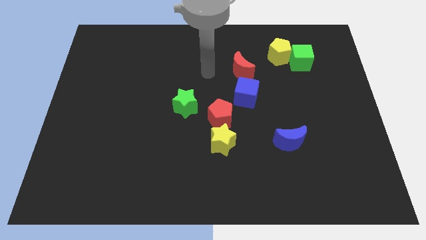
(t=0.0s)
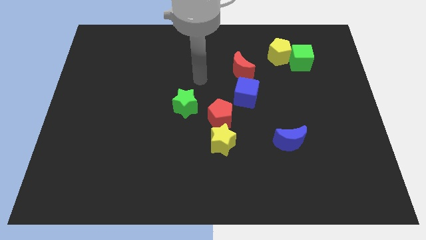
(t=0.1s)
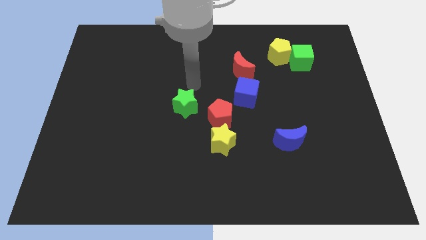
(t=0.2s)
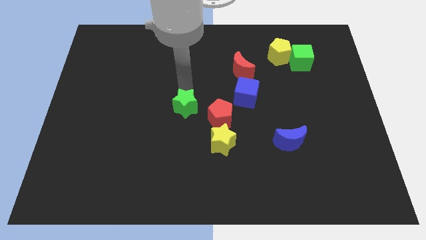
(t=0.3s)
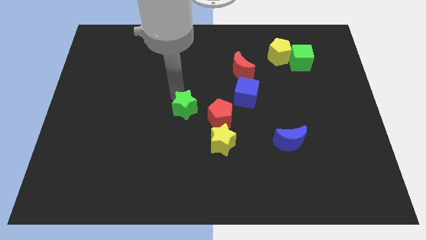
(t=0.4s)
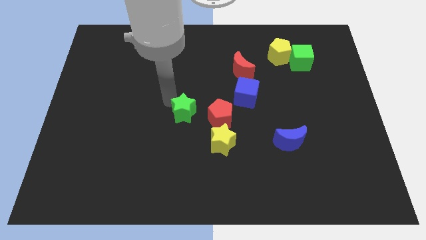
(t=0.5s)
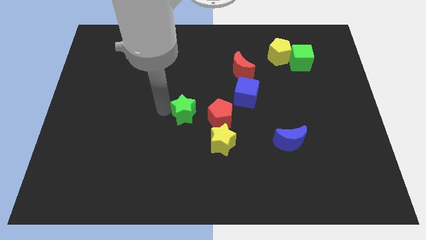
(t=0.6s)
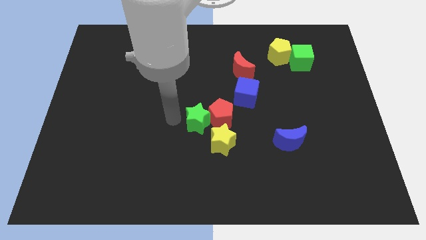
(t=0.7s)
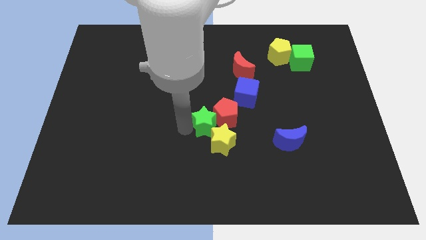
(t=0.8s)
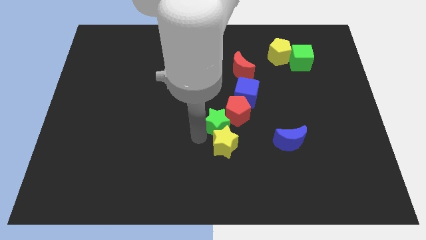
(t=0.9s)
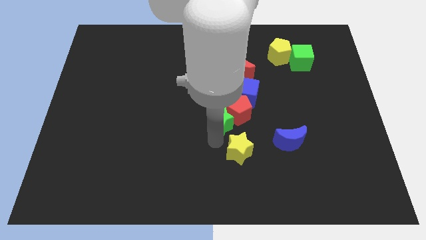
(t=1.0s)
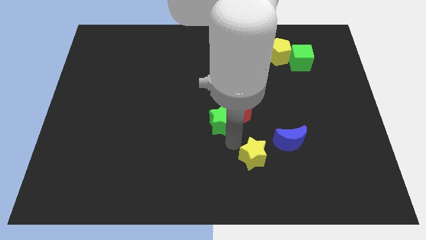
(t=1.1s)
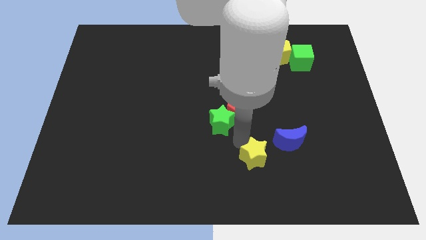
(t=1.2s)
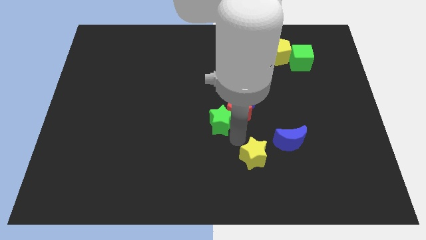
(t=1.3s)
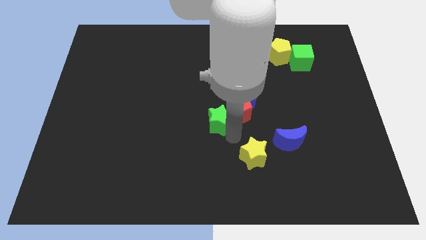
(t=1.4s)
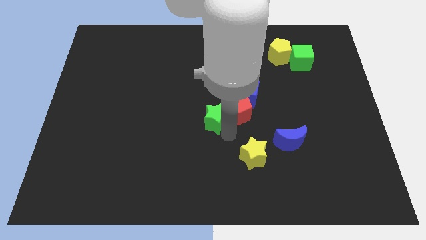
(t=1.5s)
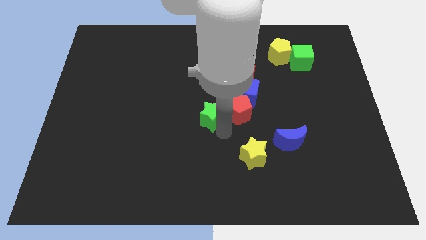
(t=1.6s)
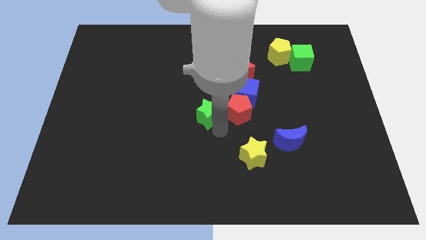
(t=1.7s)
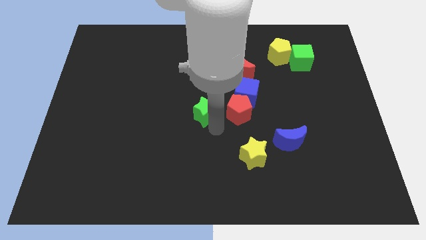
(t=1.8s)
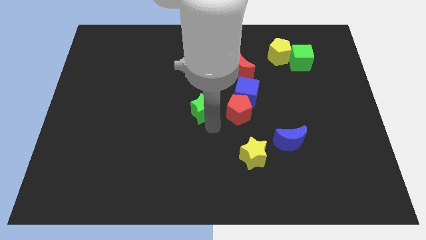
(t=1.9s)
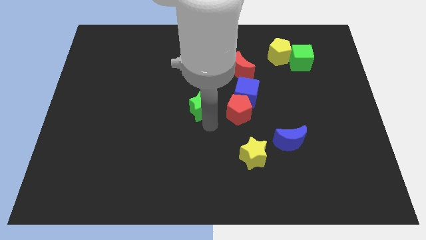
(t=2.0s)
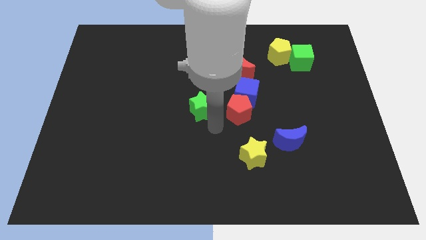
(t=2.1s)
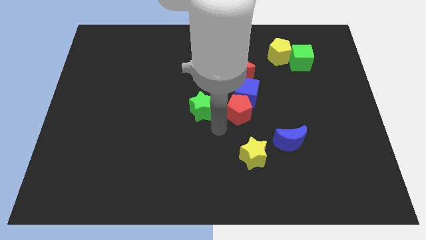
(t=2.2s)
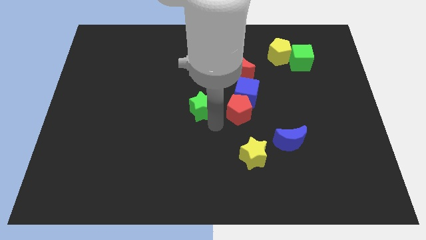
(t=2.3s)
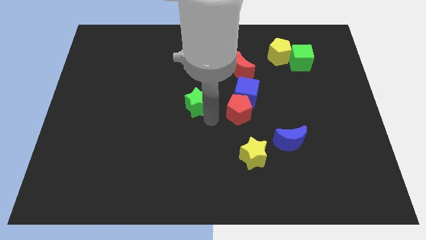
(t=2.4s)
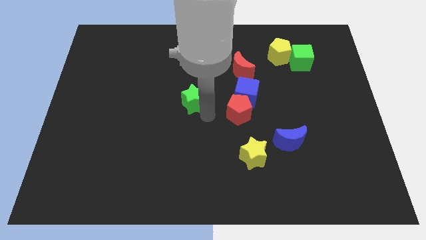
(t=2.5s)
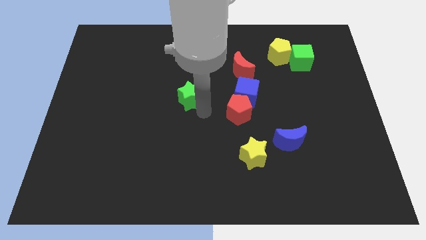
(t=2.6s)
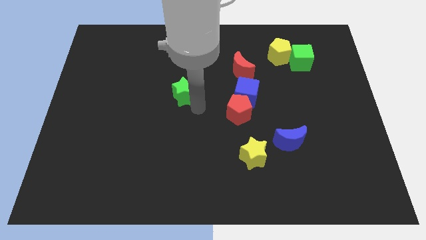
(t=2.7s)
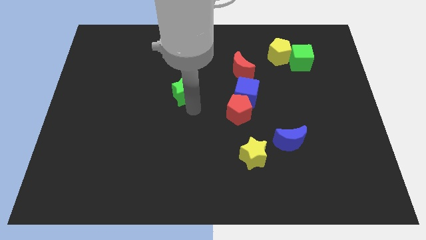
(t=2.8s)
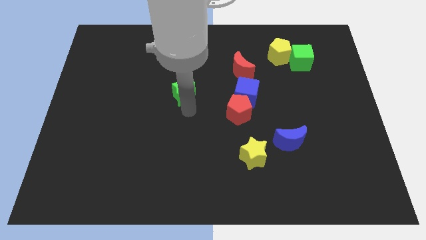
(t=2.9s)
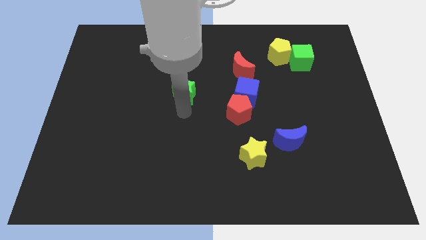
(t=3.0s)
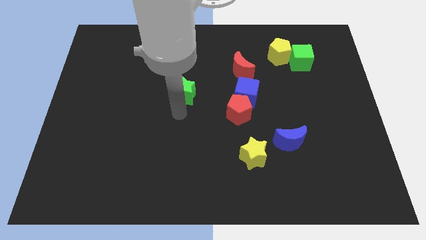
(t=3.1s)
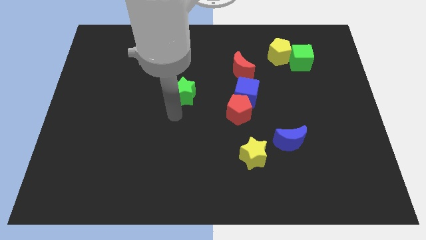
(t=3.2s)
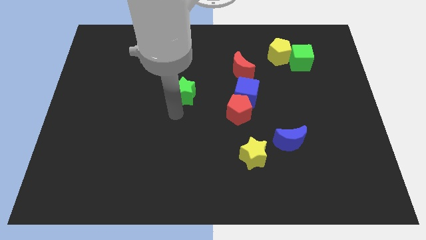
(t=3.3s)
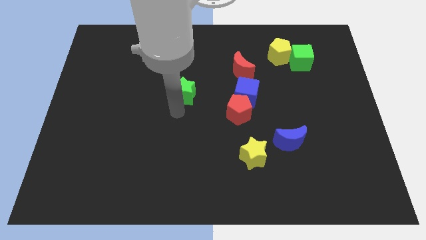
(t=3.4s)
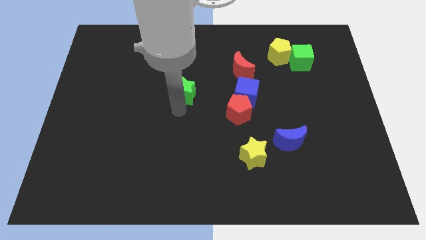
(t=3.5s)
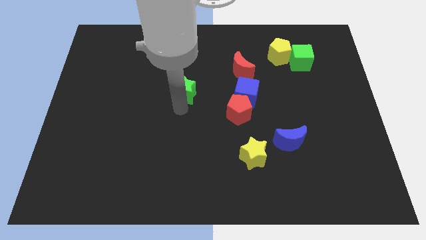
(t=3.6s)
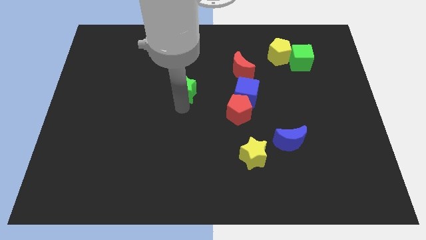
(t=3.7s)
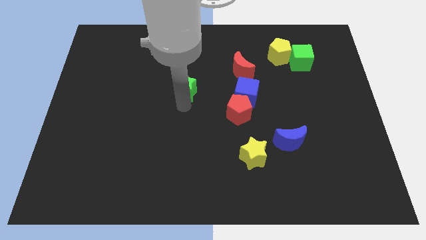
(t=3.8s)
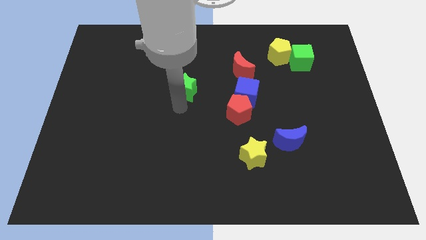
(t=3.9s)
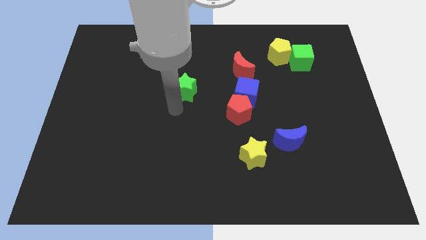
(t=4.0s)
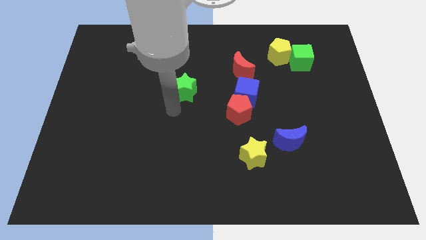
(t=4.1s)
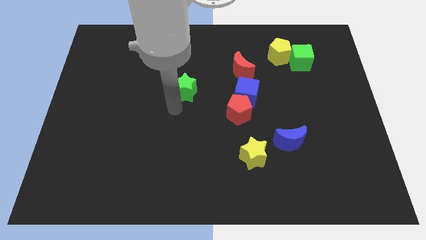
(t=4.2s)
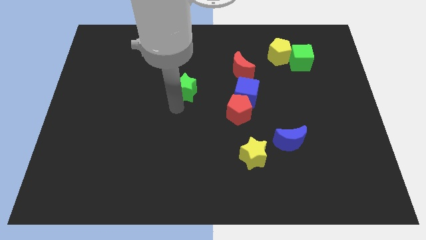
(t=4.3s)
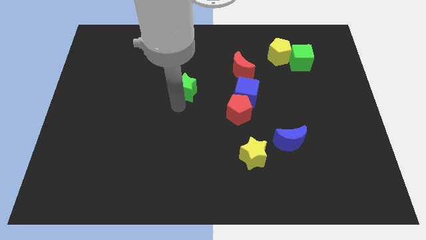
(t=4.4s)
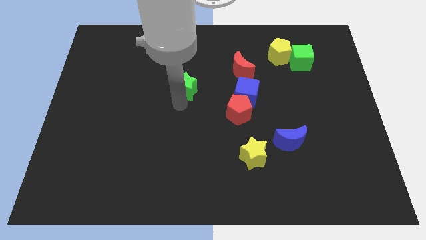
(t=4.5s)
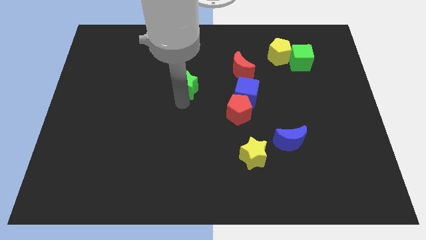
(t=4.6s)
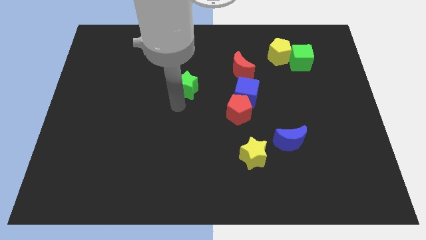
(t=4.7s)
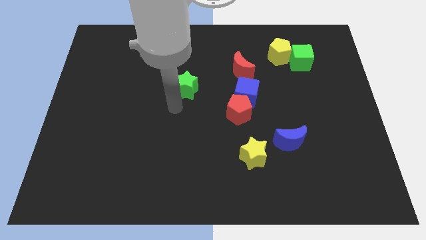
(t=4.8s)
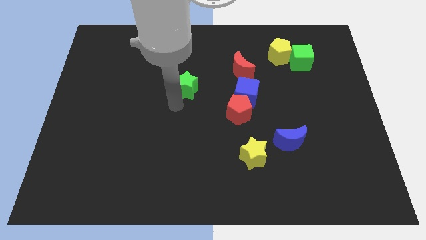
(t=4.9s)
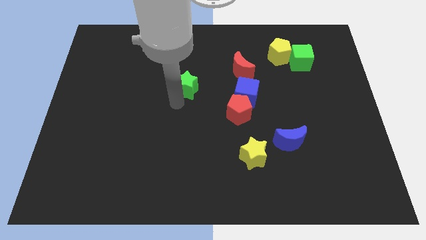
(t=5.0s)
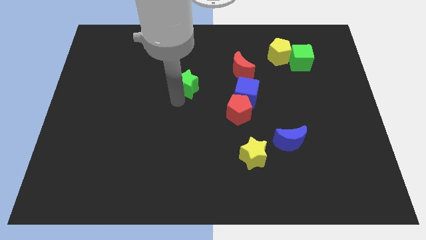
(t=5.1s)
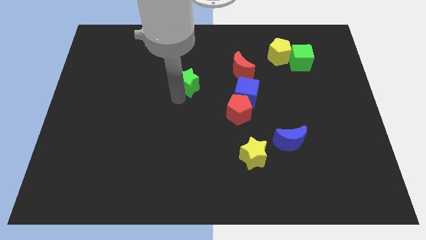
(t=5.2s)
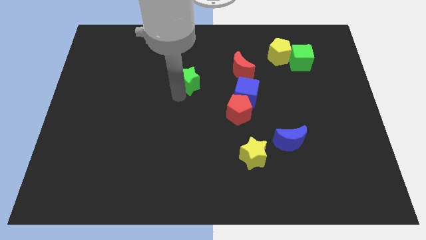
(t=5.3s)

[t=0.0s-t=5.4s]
push the green star left of the red moon

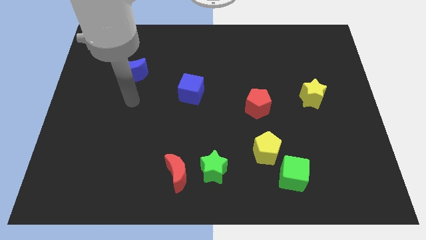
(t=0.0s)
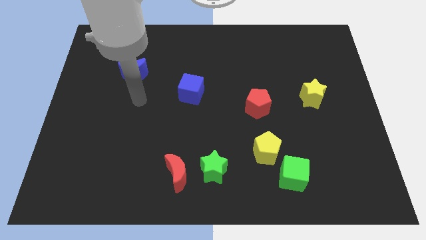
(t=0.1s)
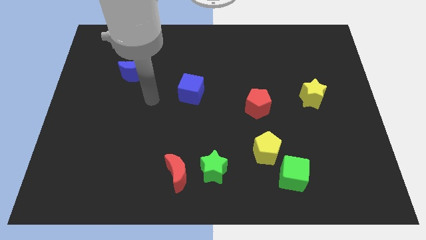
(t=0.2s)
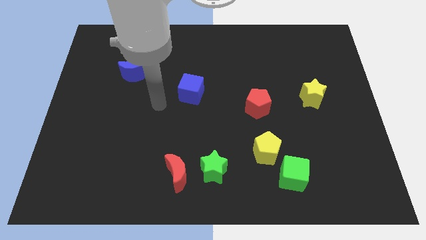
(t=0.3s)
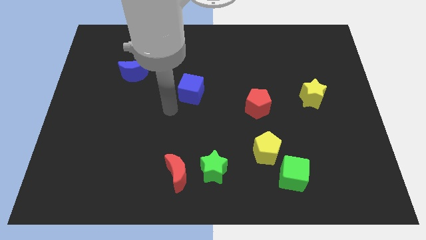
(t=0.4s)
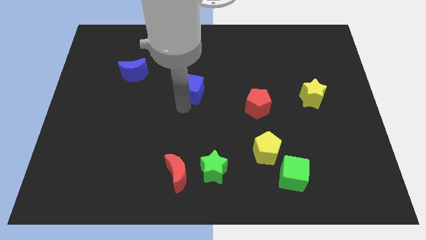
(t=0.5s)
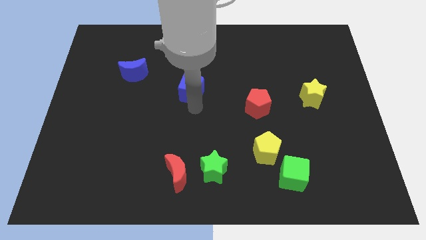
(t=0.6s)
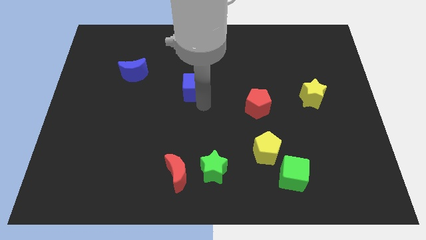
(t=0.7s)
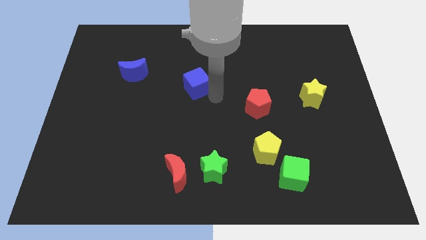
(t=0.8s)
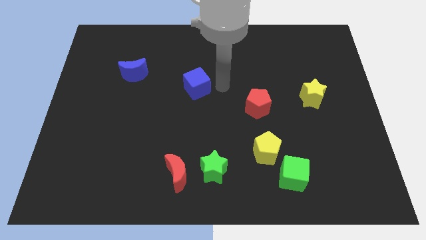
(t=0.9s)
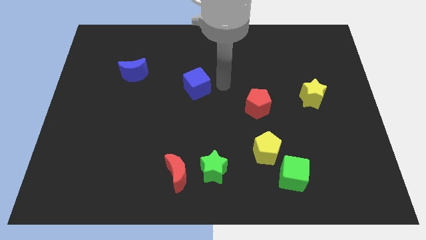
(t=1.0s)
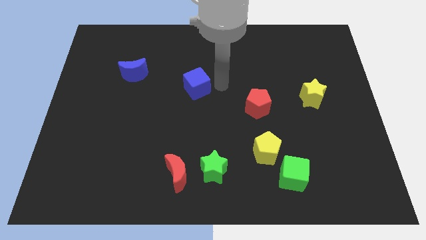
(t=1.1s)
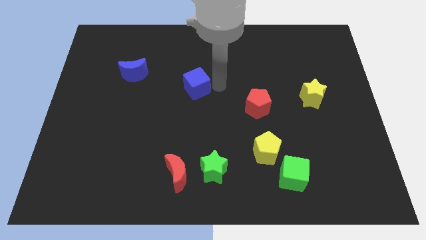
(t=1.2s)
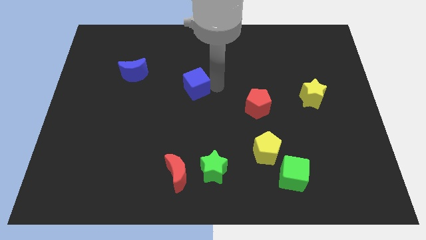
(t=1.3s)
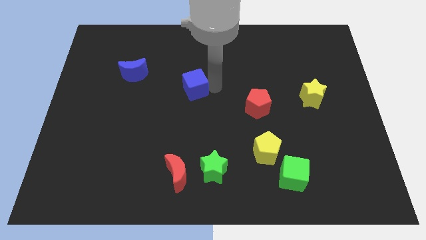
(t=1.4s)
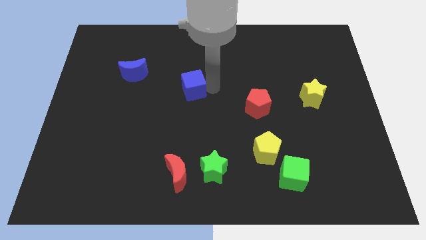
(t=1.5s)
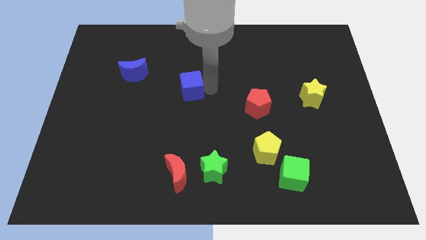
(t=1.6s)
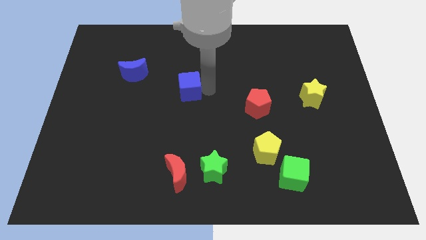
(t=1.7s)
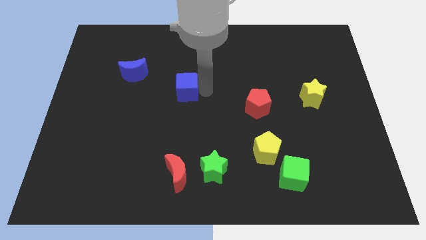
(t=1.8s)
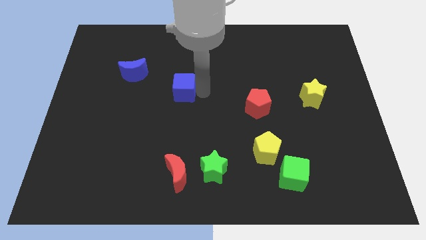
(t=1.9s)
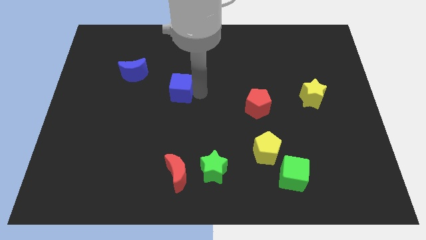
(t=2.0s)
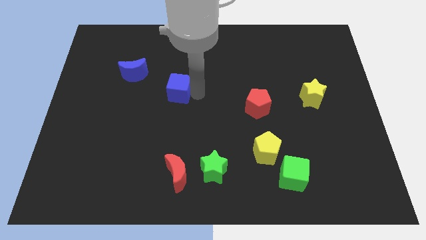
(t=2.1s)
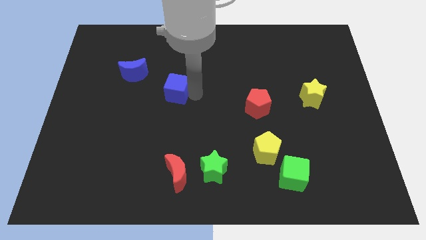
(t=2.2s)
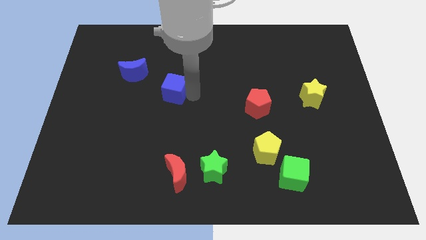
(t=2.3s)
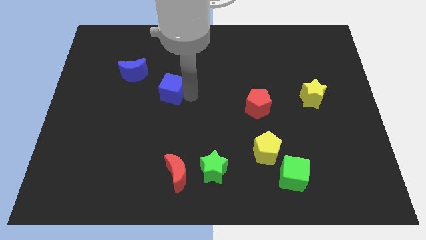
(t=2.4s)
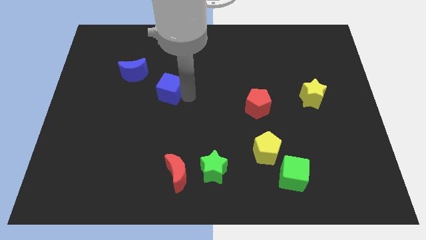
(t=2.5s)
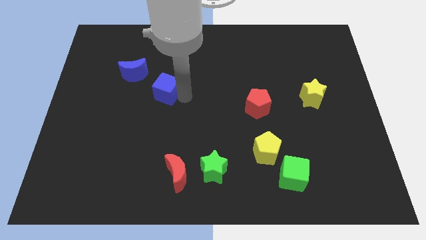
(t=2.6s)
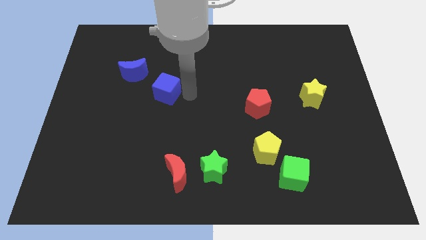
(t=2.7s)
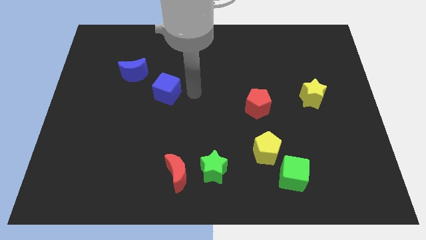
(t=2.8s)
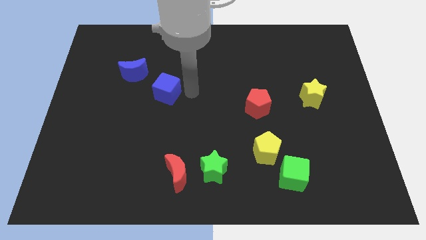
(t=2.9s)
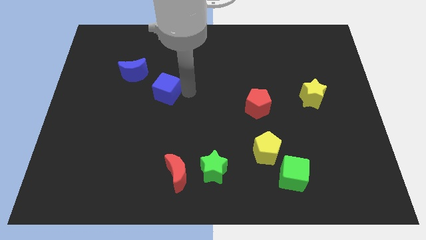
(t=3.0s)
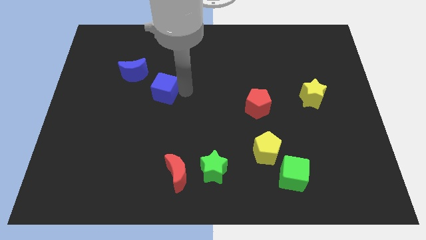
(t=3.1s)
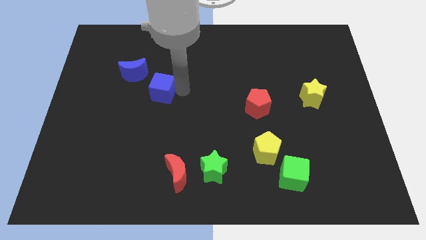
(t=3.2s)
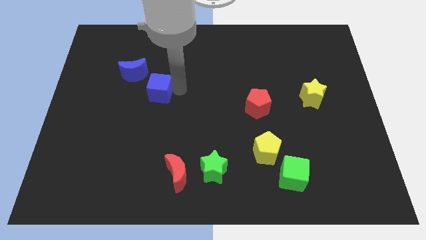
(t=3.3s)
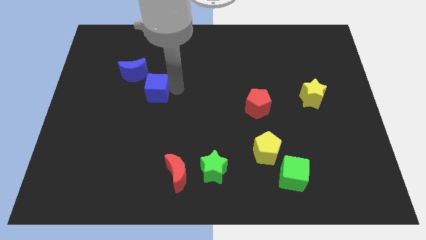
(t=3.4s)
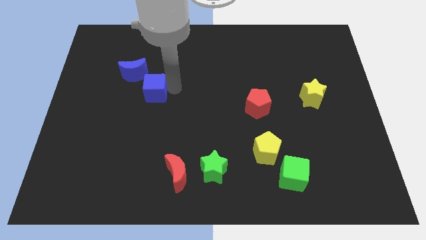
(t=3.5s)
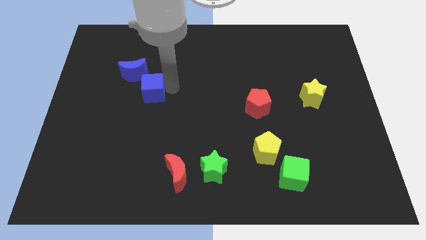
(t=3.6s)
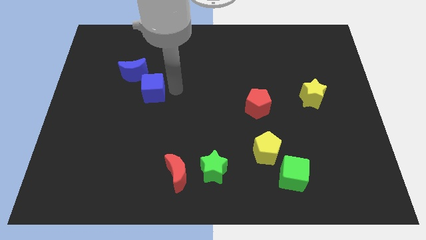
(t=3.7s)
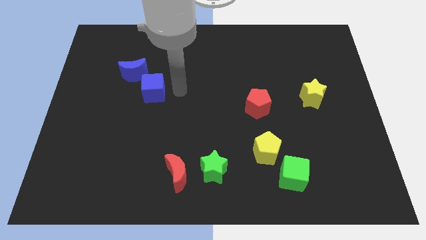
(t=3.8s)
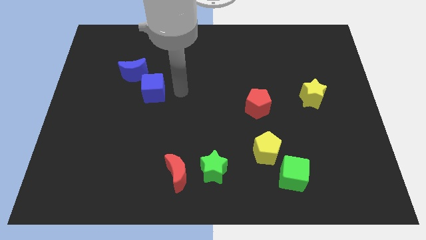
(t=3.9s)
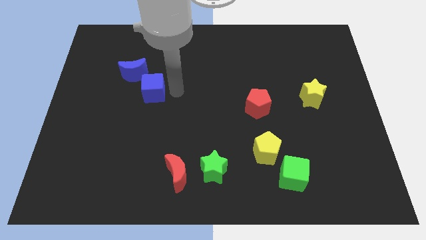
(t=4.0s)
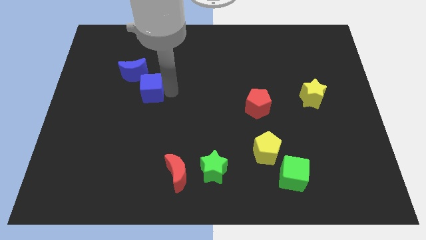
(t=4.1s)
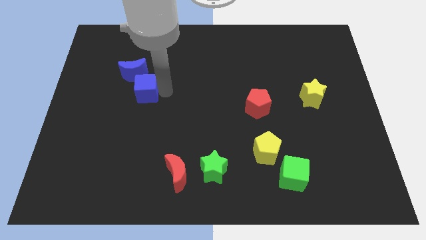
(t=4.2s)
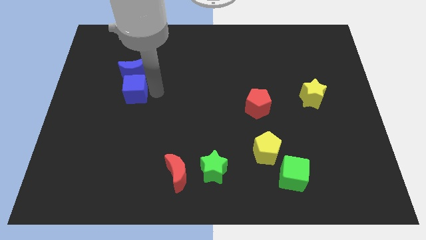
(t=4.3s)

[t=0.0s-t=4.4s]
move the blue cube to the bottom left of the blue moon
